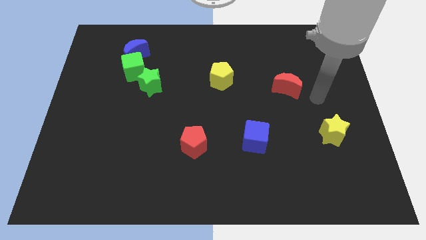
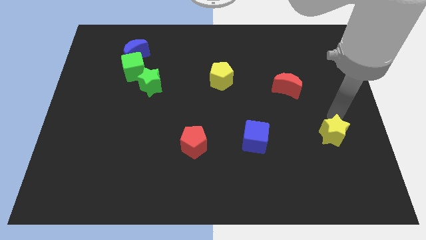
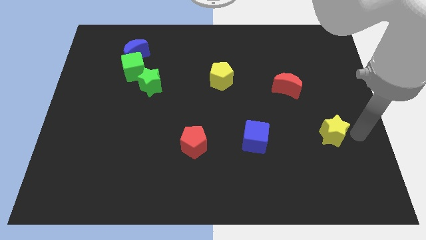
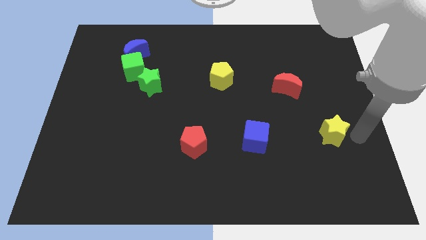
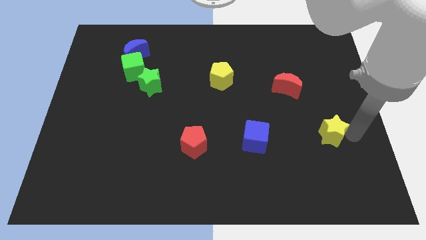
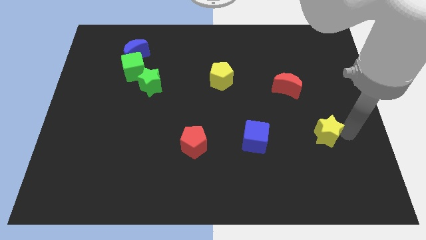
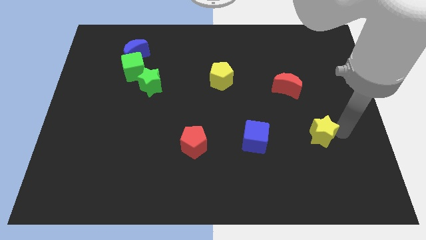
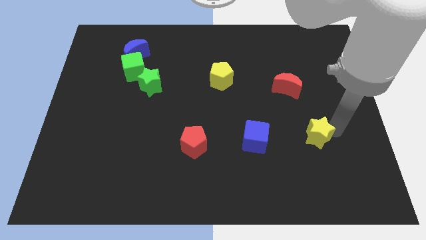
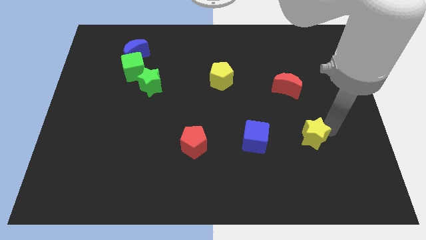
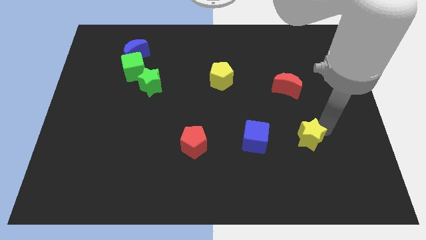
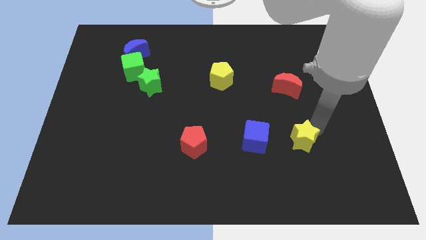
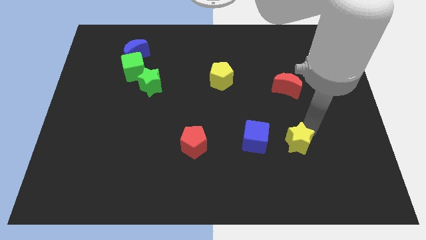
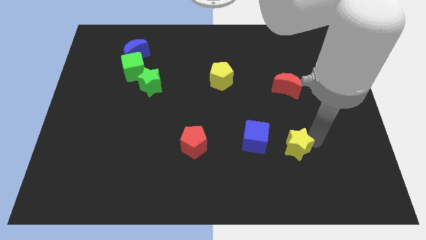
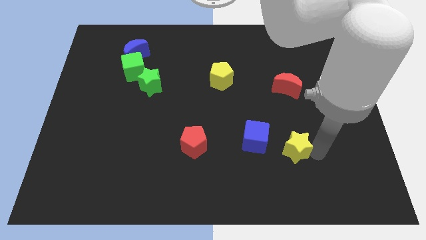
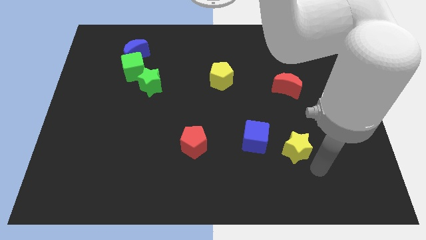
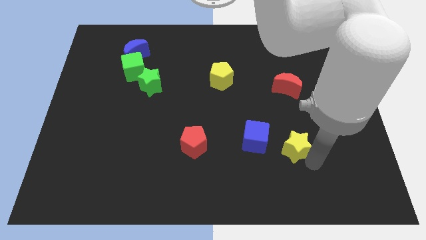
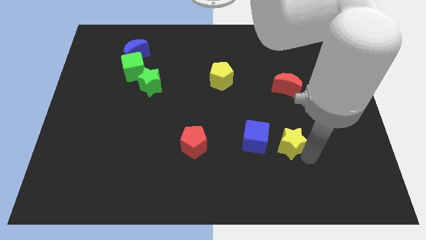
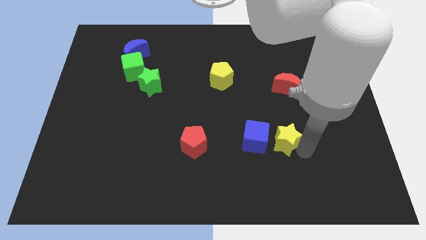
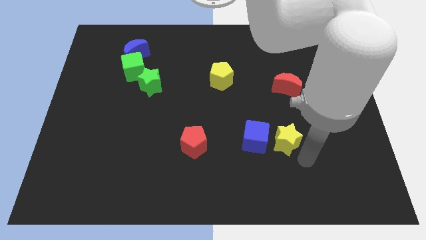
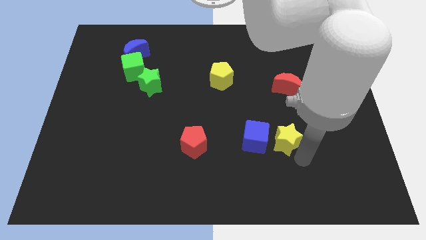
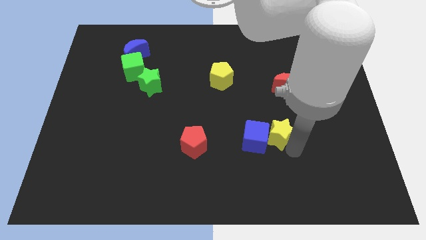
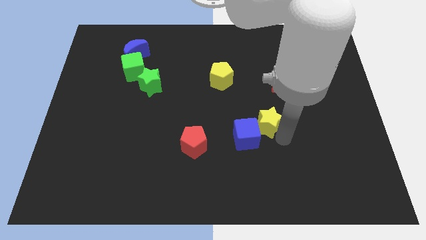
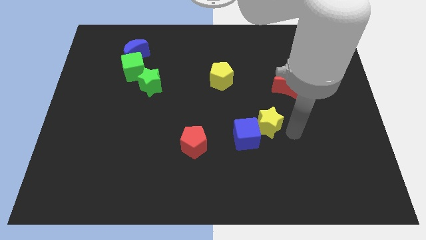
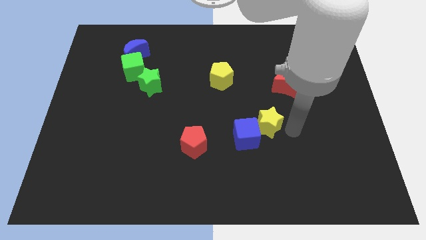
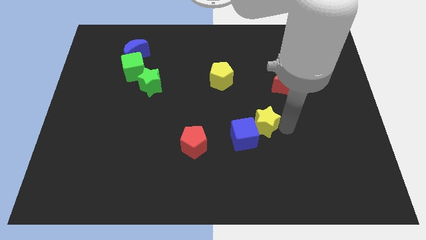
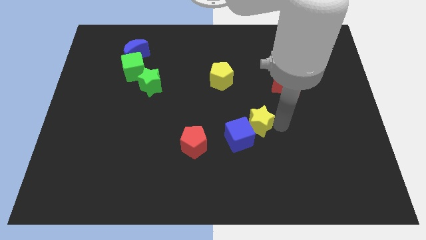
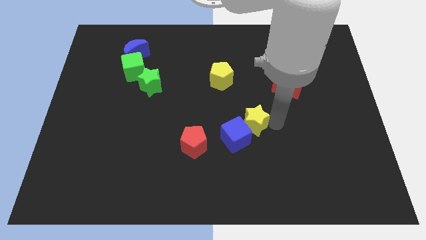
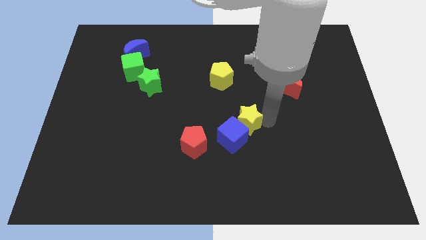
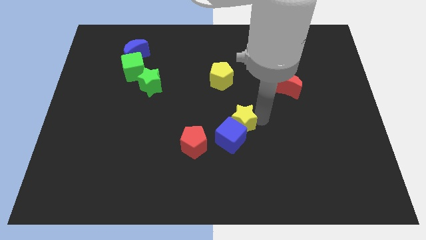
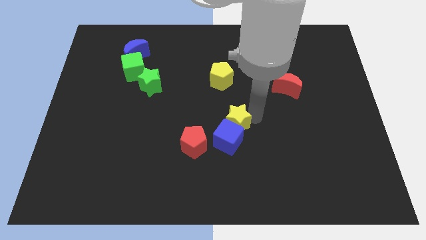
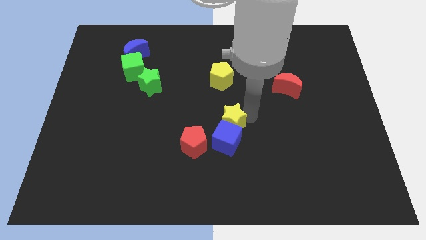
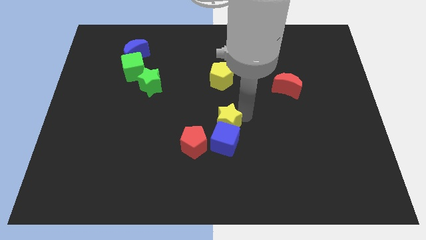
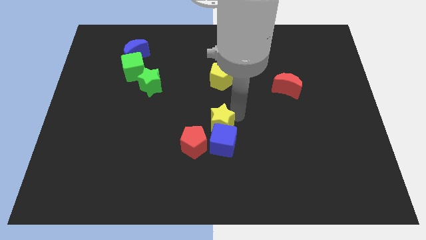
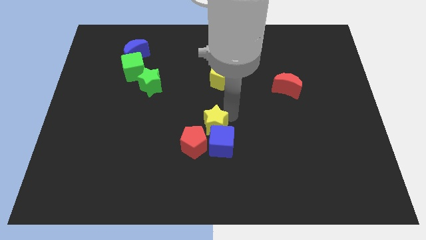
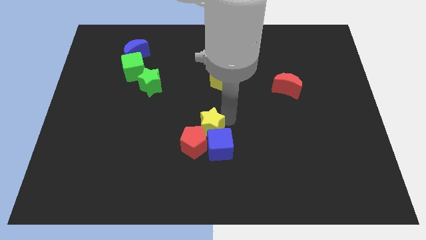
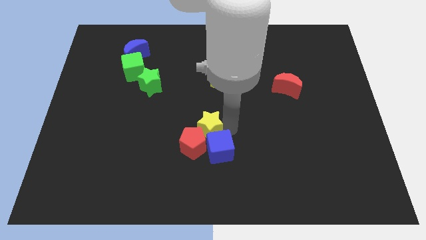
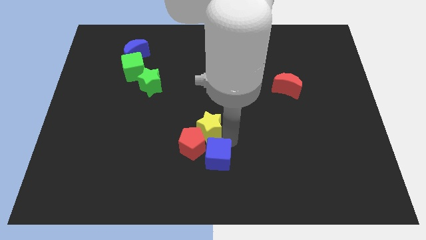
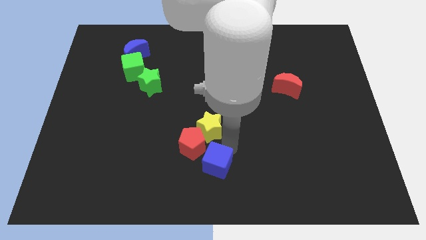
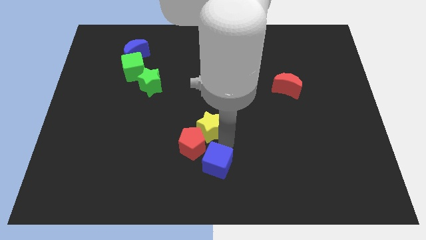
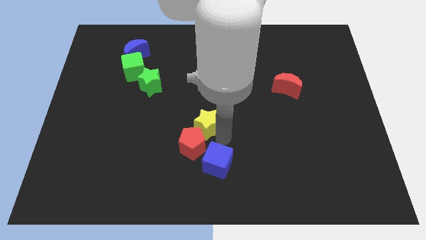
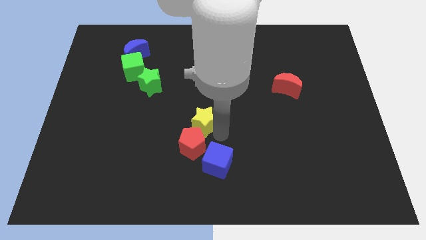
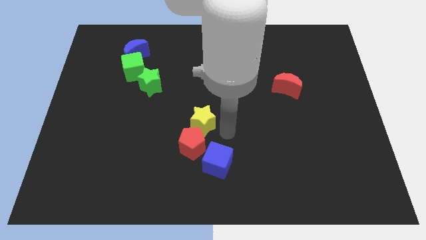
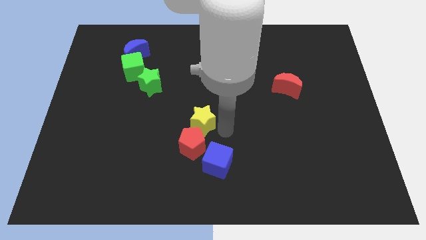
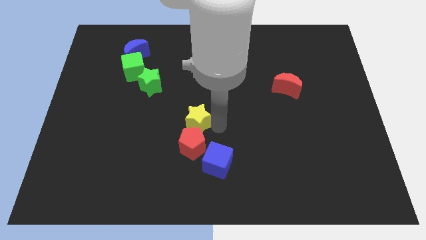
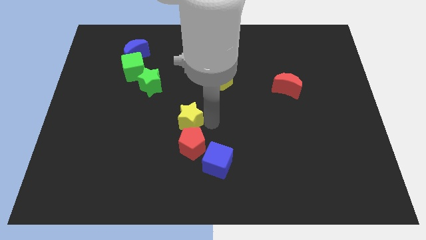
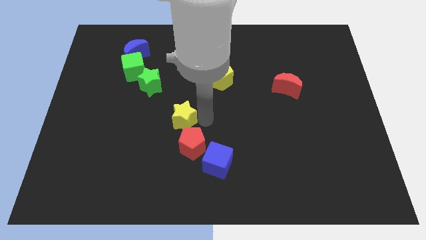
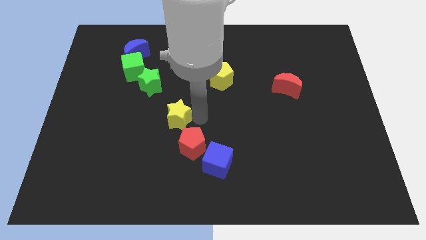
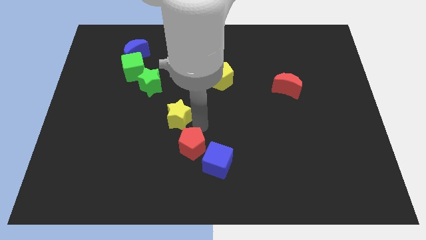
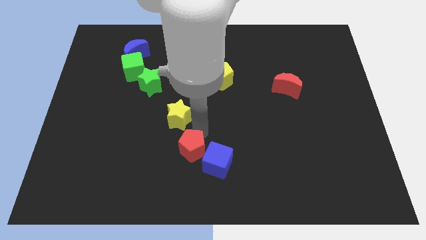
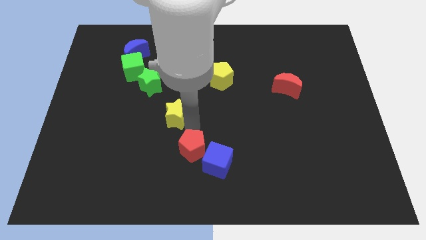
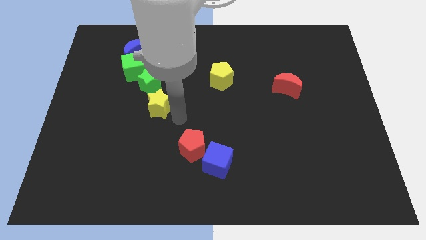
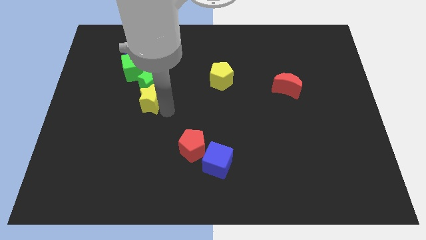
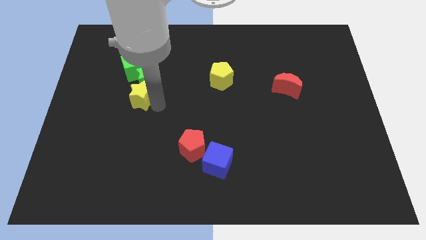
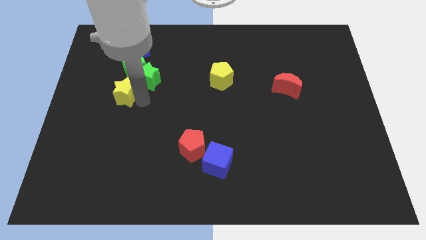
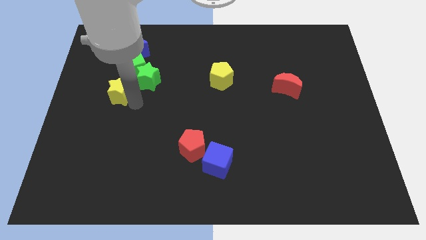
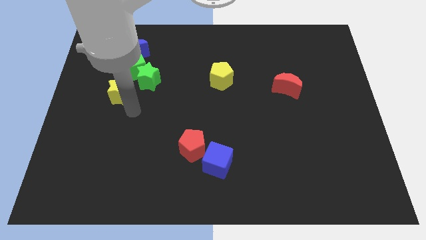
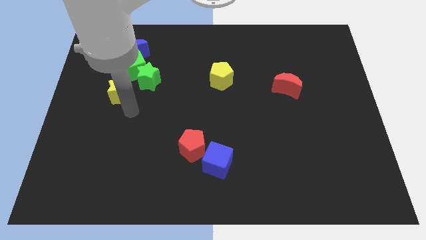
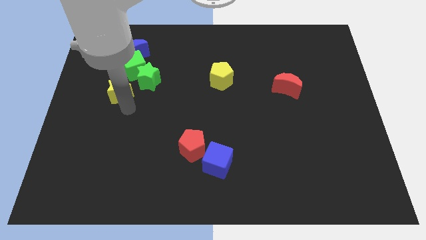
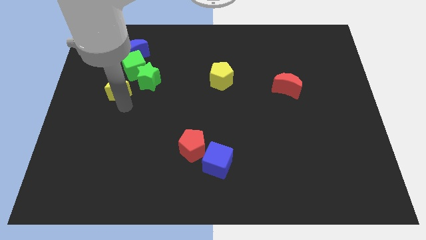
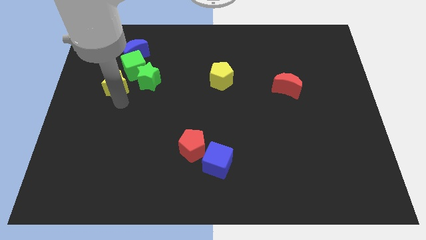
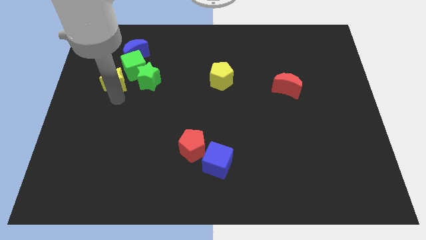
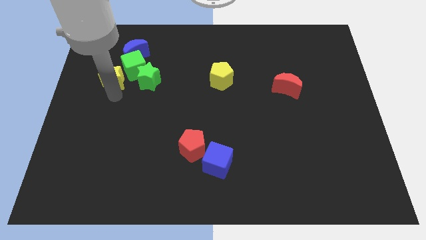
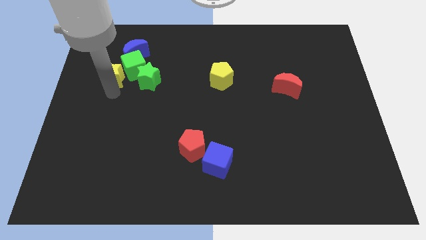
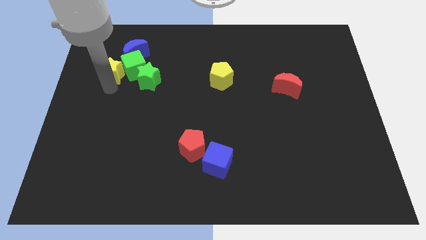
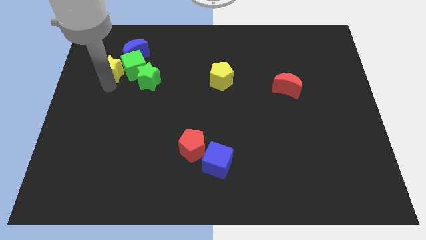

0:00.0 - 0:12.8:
move the yellow star to the top left of the green cube
